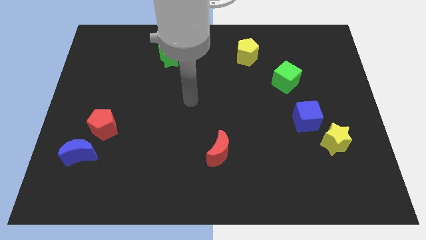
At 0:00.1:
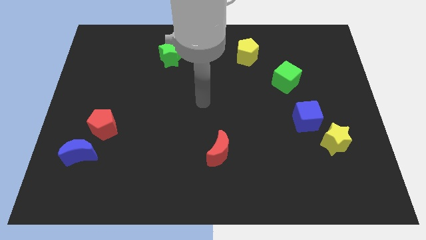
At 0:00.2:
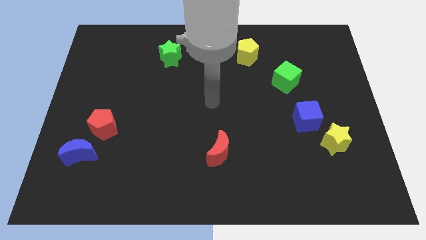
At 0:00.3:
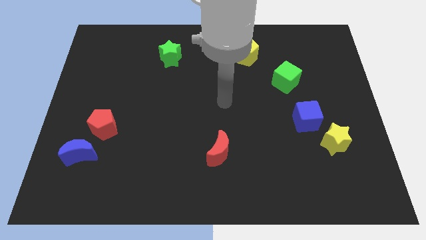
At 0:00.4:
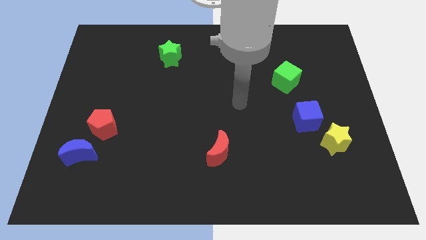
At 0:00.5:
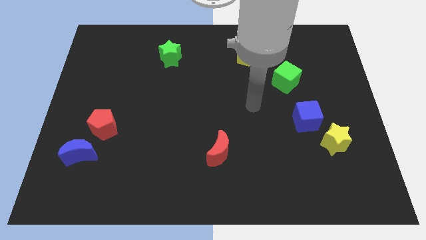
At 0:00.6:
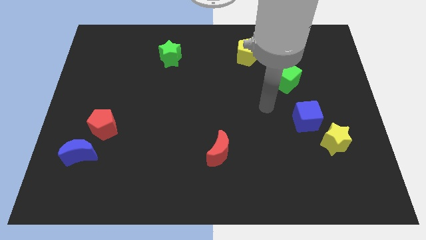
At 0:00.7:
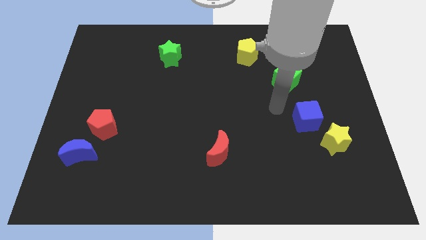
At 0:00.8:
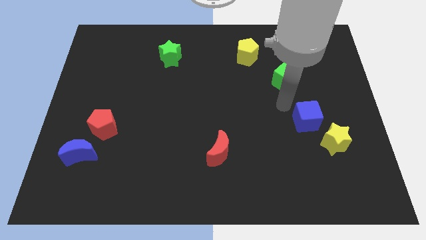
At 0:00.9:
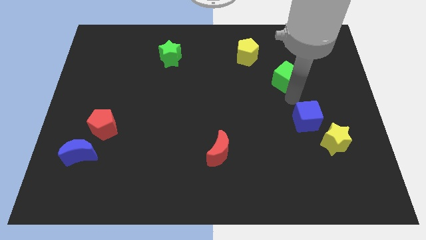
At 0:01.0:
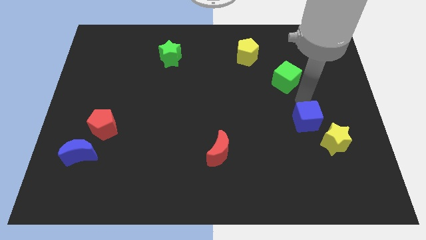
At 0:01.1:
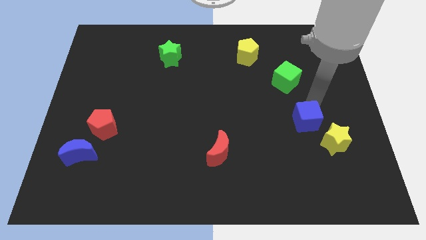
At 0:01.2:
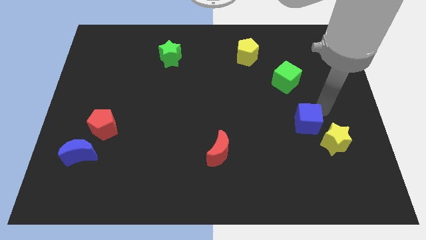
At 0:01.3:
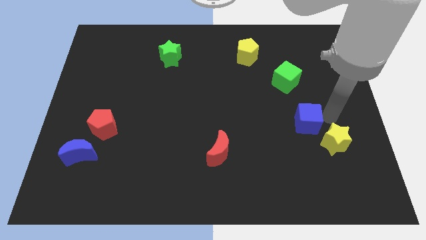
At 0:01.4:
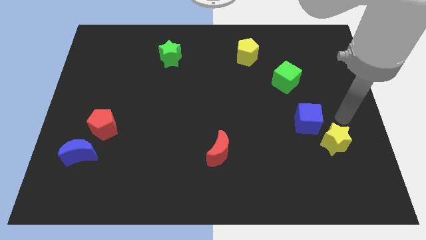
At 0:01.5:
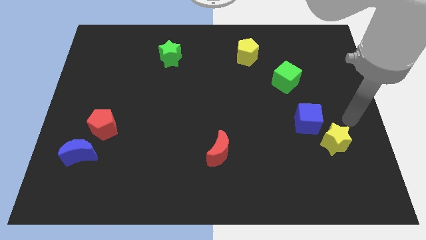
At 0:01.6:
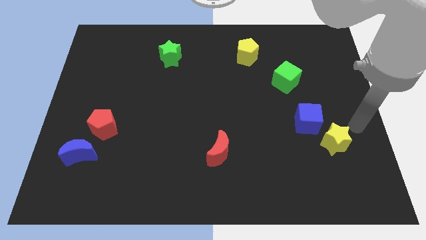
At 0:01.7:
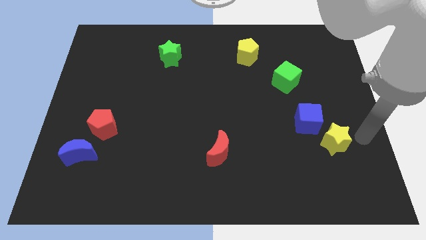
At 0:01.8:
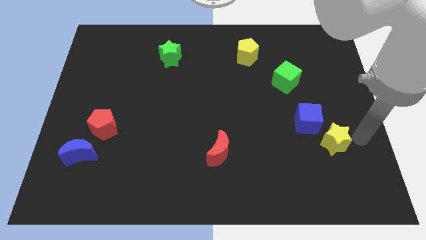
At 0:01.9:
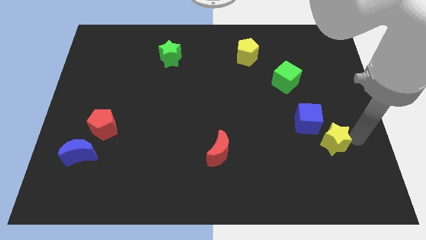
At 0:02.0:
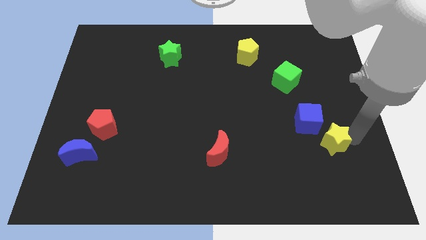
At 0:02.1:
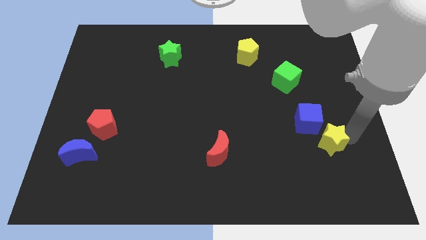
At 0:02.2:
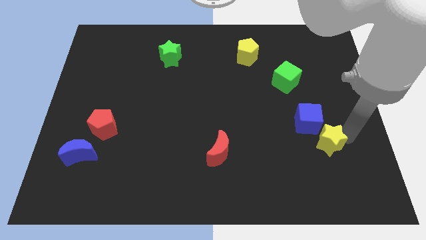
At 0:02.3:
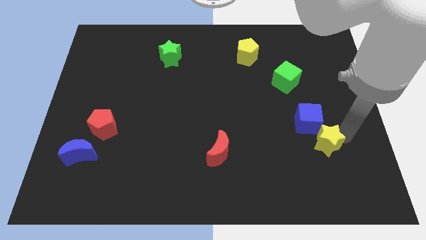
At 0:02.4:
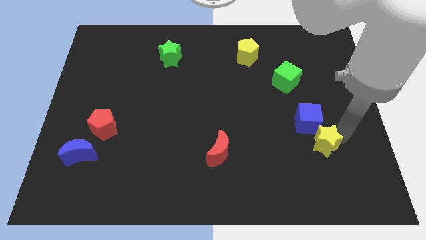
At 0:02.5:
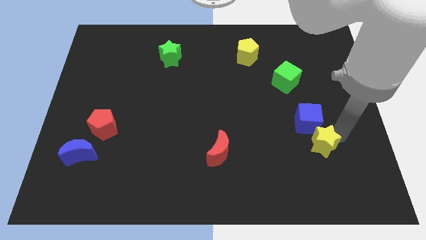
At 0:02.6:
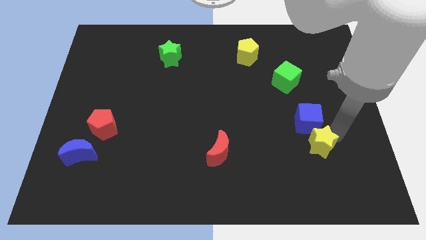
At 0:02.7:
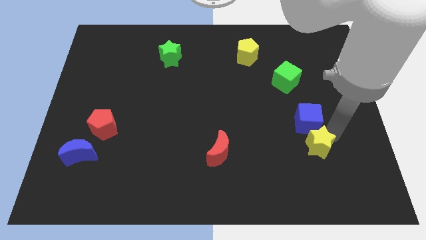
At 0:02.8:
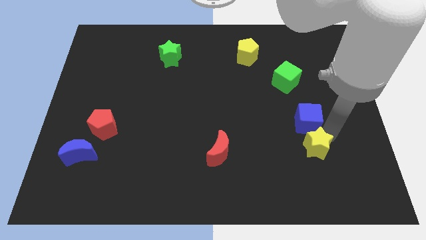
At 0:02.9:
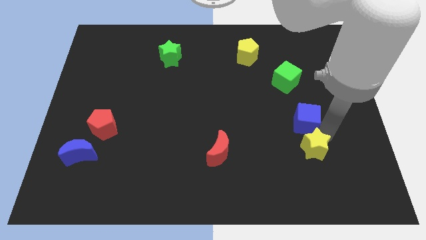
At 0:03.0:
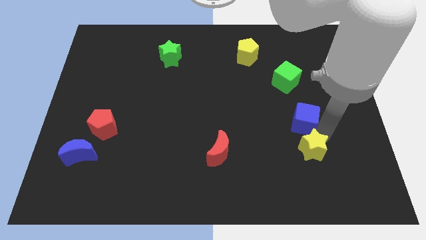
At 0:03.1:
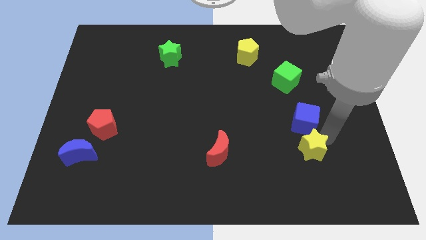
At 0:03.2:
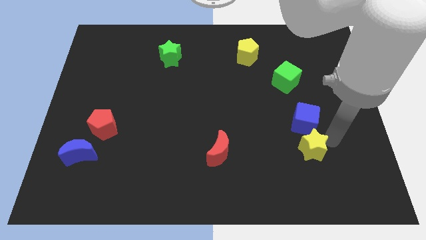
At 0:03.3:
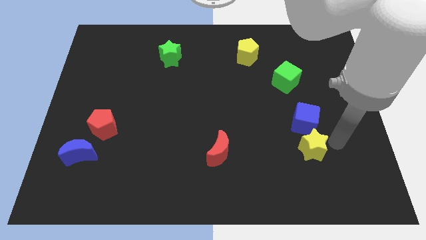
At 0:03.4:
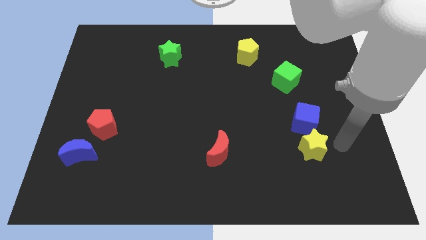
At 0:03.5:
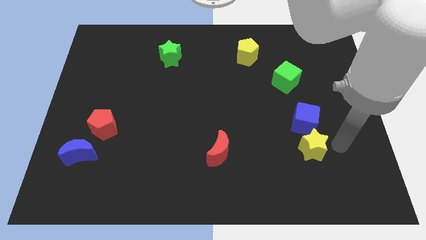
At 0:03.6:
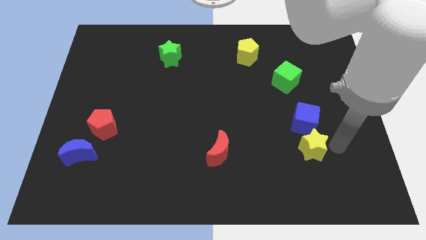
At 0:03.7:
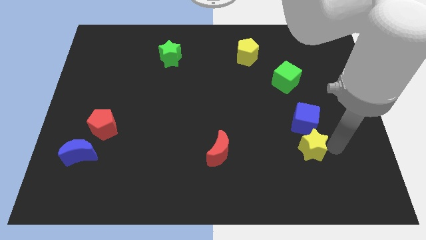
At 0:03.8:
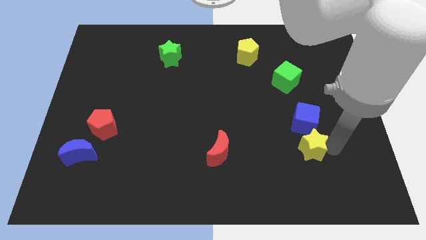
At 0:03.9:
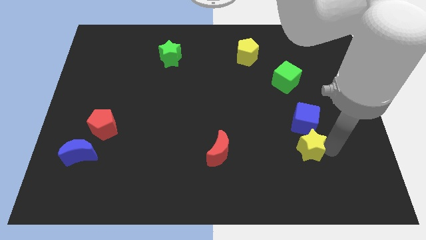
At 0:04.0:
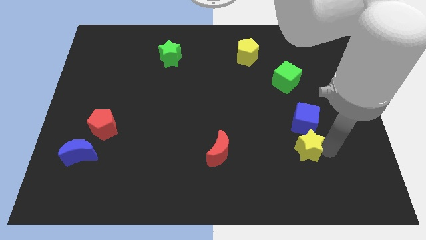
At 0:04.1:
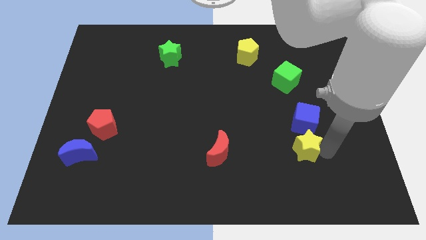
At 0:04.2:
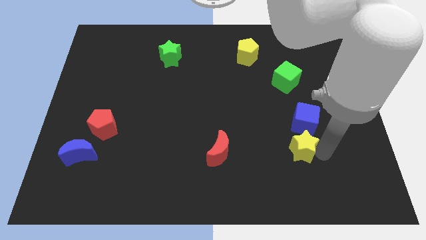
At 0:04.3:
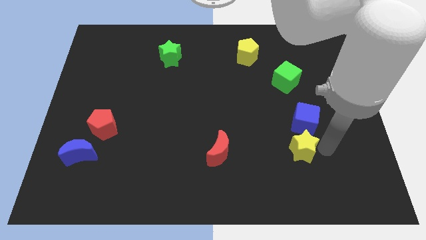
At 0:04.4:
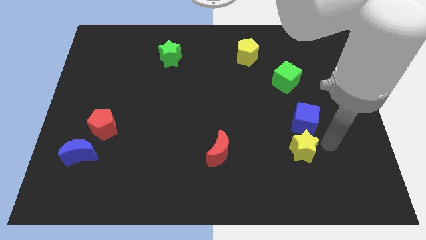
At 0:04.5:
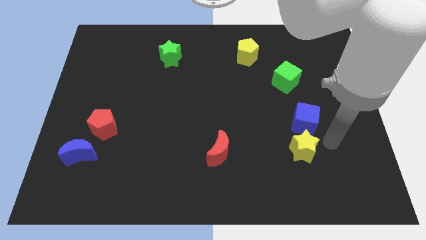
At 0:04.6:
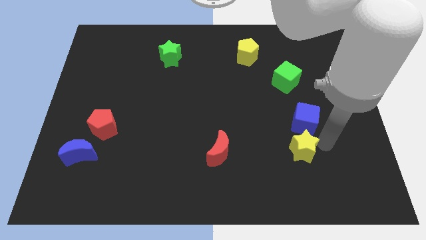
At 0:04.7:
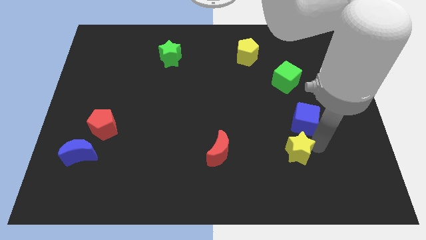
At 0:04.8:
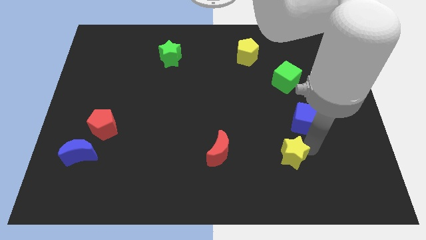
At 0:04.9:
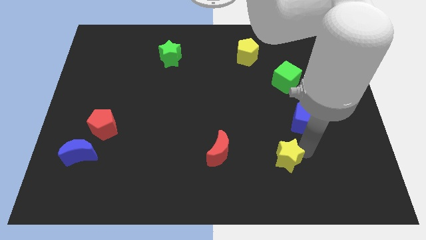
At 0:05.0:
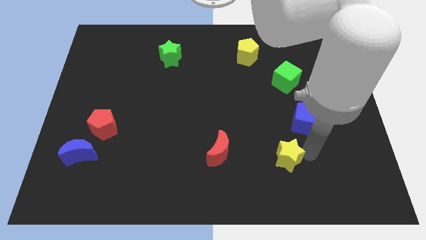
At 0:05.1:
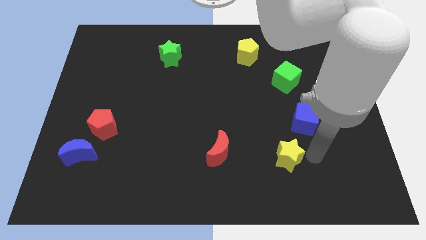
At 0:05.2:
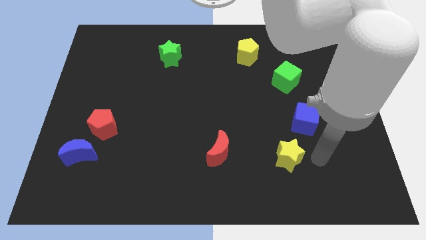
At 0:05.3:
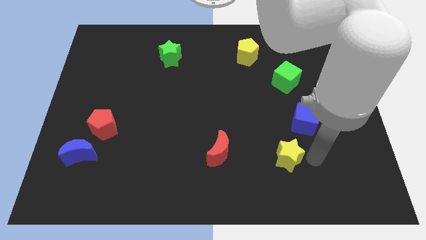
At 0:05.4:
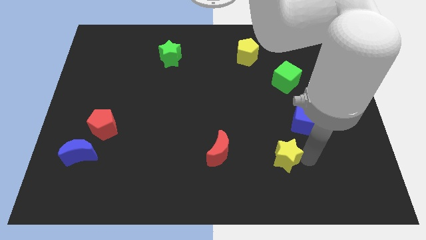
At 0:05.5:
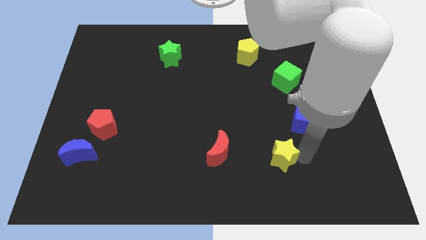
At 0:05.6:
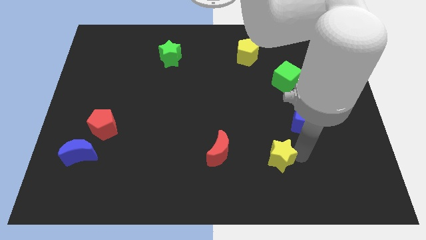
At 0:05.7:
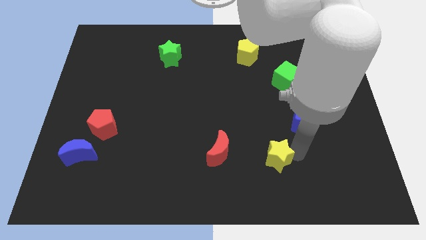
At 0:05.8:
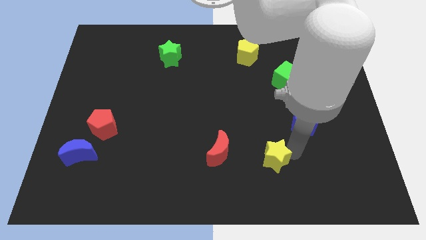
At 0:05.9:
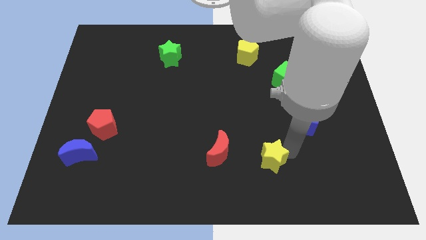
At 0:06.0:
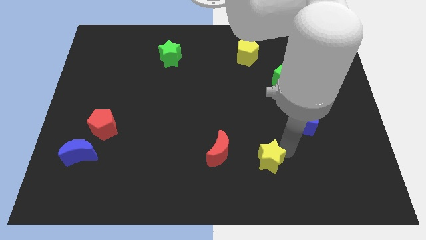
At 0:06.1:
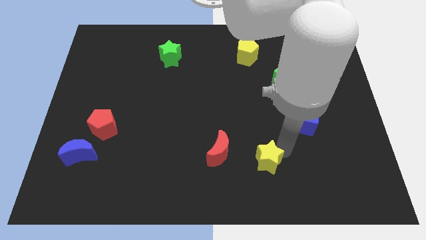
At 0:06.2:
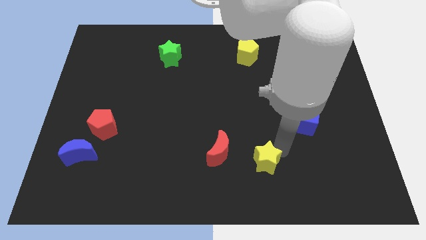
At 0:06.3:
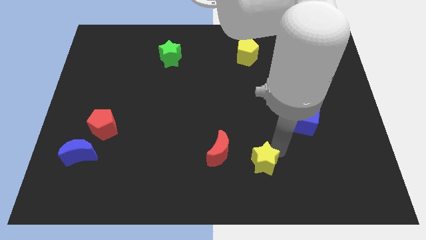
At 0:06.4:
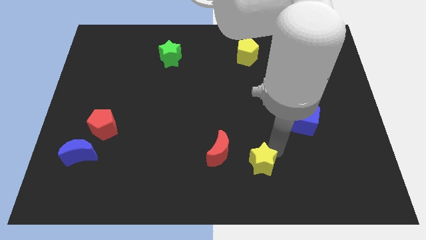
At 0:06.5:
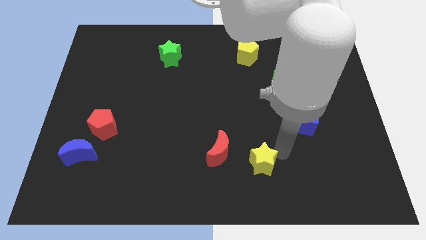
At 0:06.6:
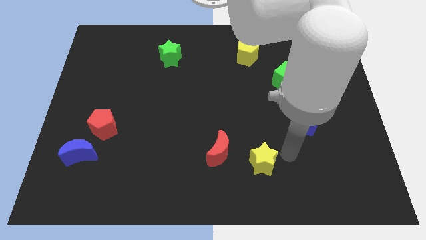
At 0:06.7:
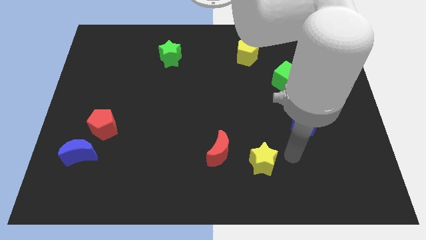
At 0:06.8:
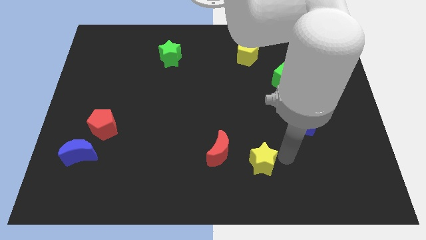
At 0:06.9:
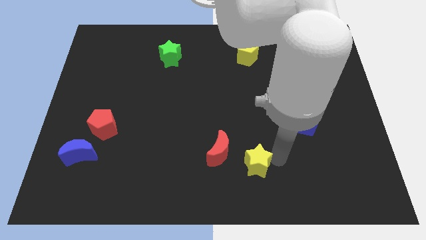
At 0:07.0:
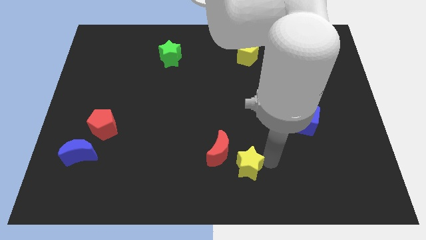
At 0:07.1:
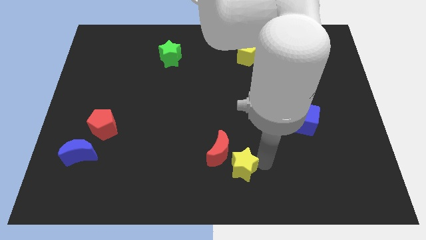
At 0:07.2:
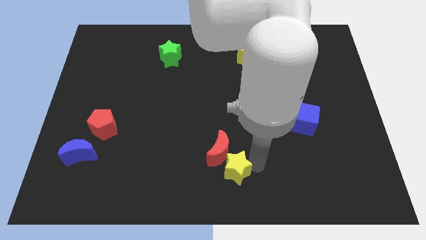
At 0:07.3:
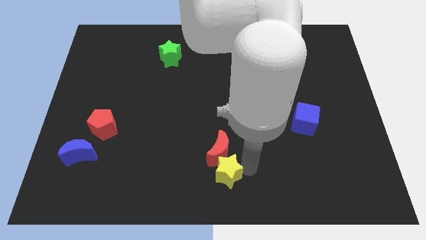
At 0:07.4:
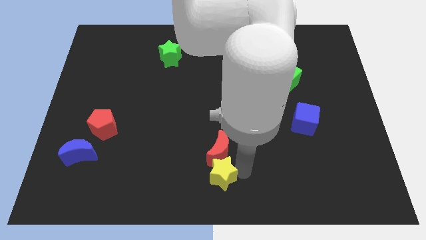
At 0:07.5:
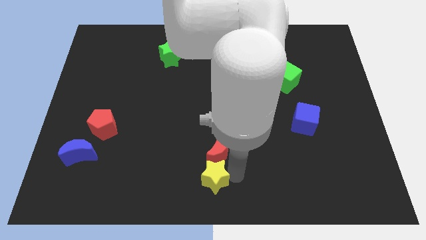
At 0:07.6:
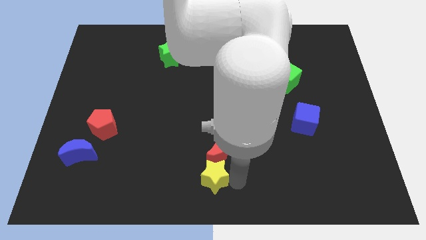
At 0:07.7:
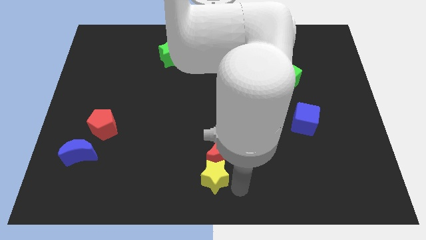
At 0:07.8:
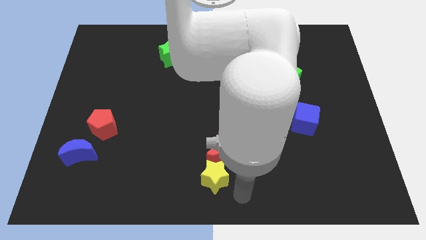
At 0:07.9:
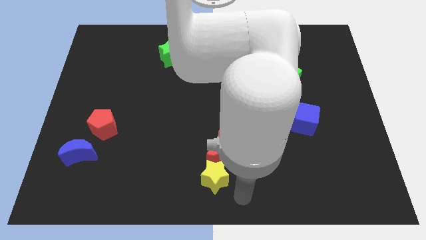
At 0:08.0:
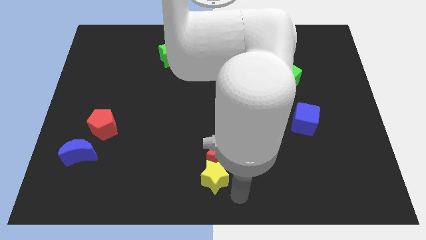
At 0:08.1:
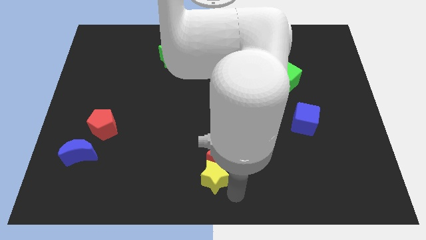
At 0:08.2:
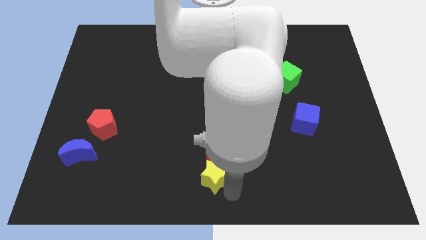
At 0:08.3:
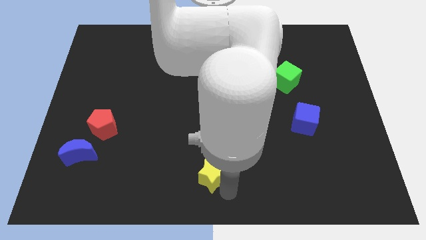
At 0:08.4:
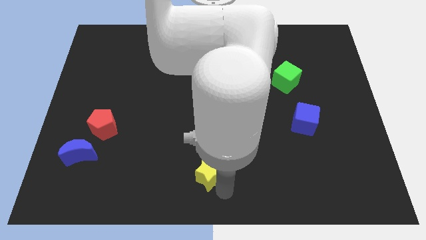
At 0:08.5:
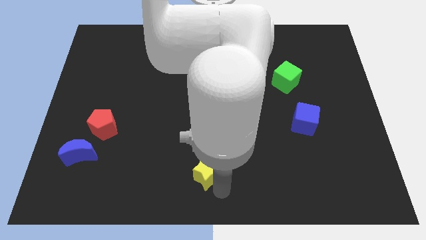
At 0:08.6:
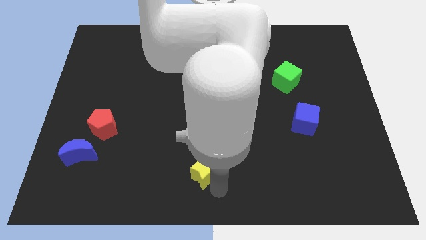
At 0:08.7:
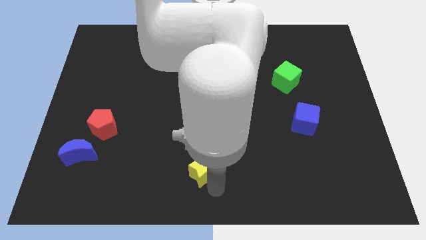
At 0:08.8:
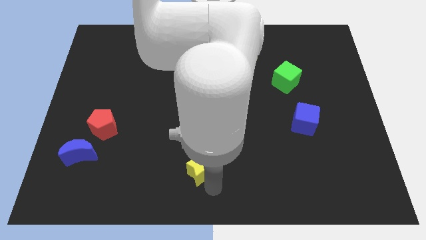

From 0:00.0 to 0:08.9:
push the yellow star to the left side of the red moon
